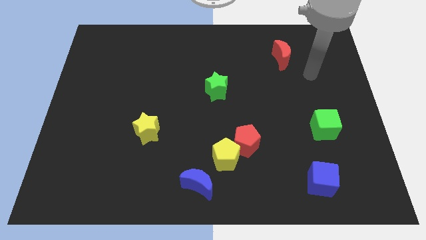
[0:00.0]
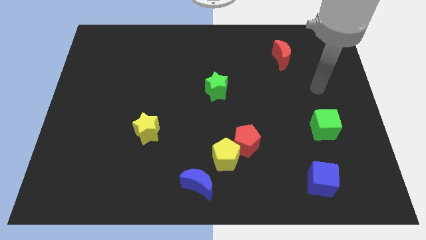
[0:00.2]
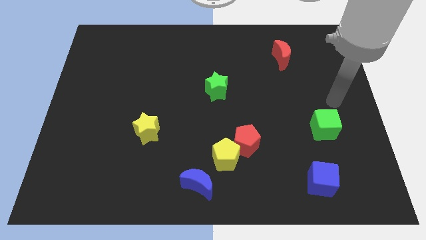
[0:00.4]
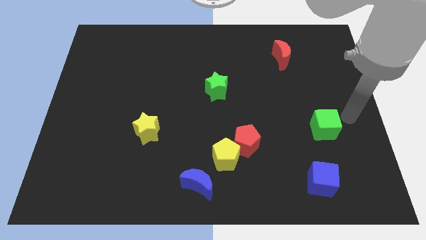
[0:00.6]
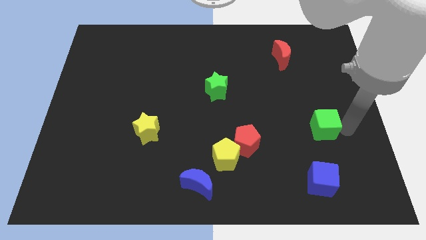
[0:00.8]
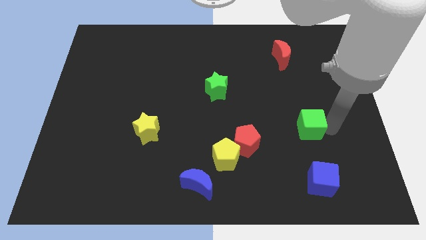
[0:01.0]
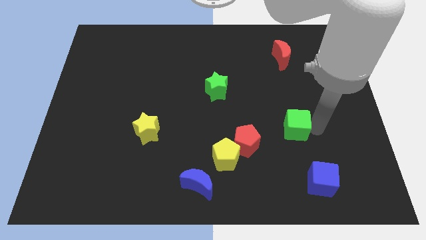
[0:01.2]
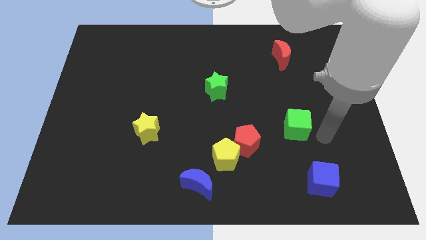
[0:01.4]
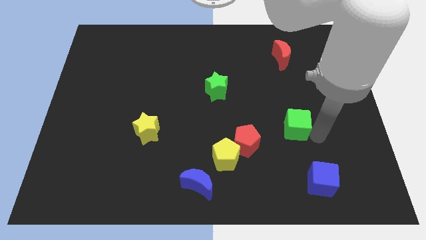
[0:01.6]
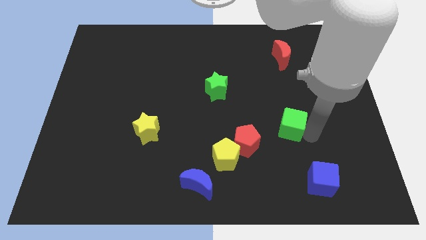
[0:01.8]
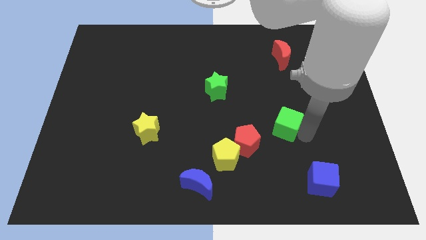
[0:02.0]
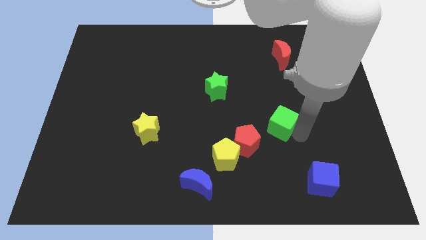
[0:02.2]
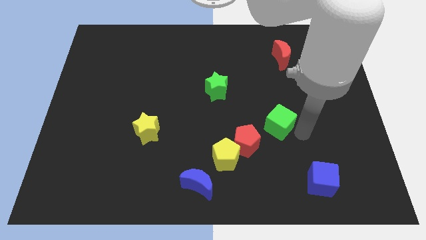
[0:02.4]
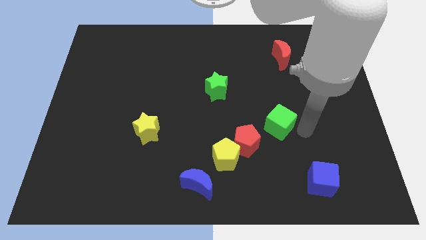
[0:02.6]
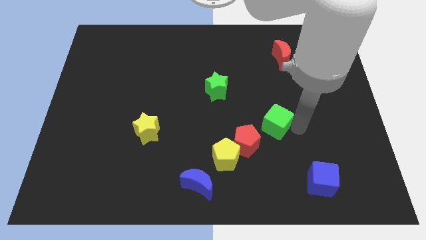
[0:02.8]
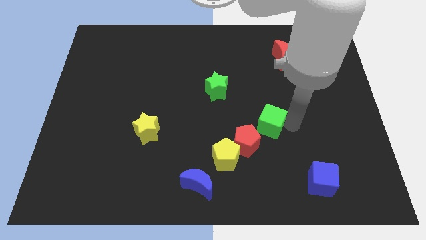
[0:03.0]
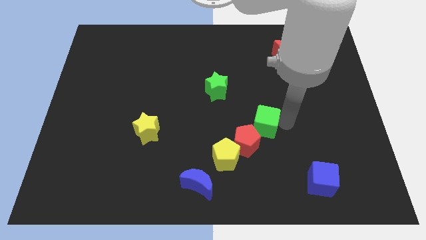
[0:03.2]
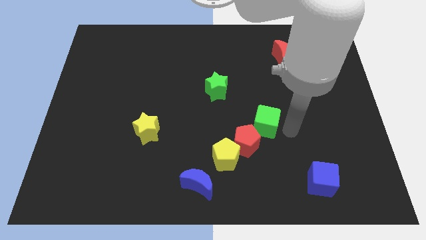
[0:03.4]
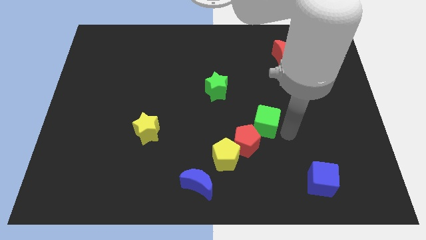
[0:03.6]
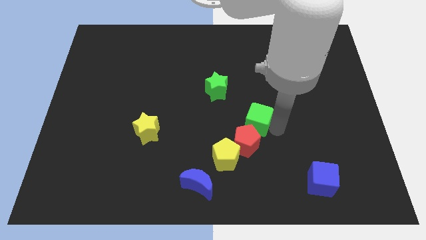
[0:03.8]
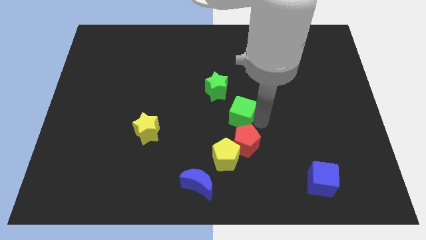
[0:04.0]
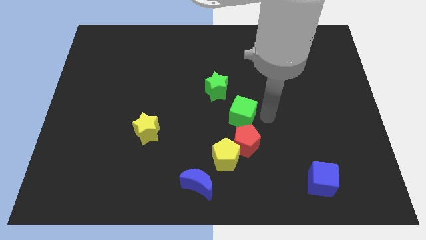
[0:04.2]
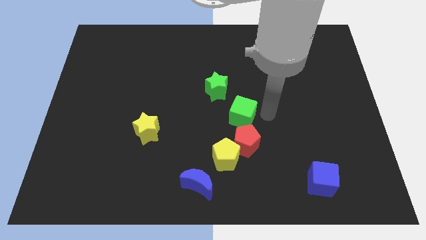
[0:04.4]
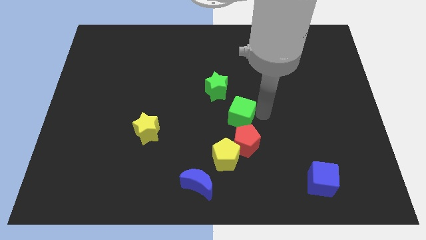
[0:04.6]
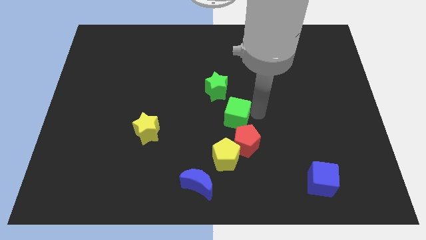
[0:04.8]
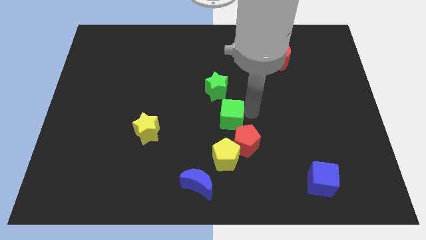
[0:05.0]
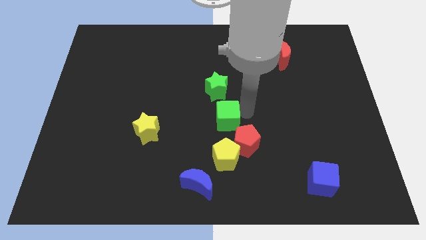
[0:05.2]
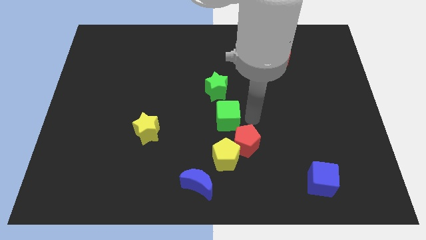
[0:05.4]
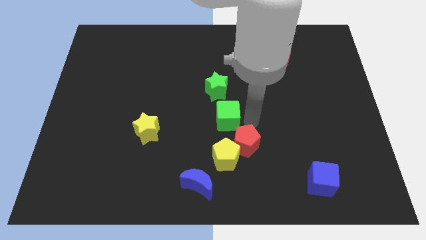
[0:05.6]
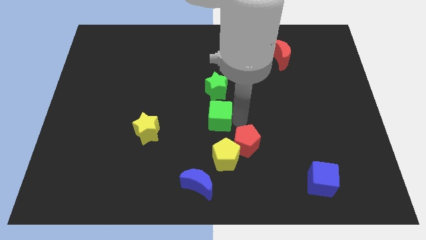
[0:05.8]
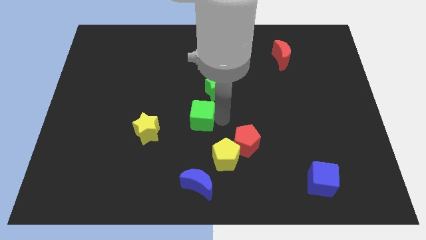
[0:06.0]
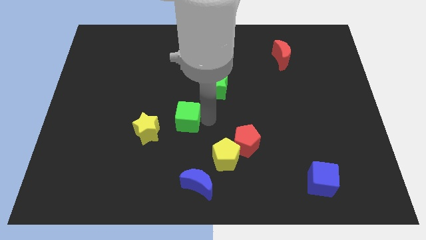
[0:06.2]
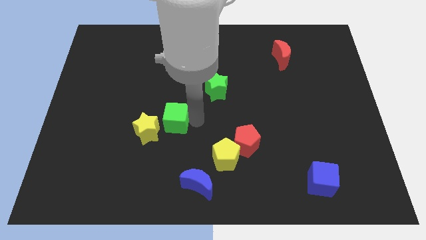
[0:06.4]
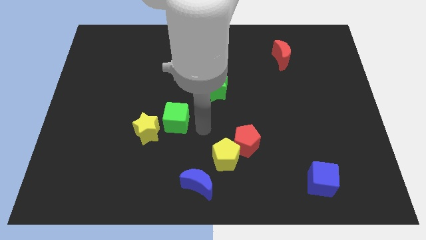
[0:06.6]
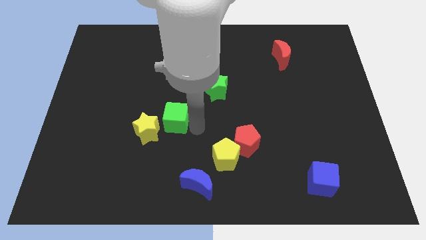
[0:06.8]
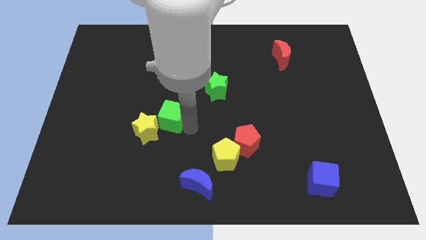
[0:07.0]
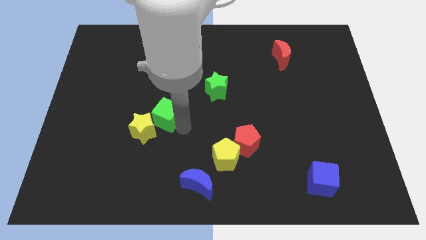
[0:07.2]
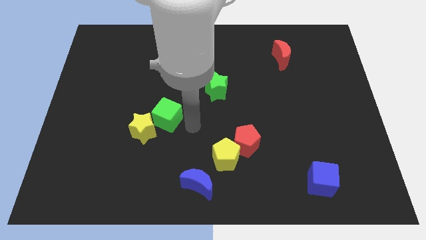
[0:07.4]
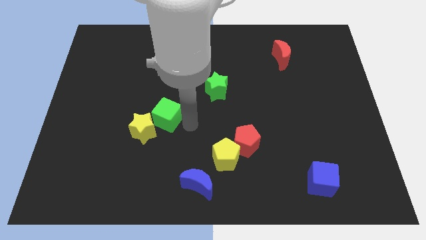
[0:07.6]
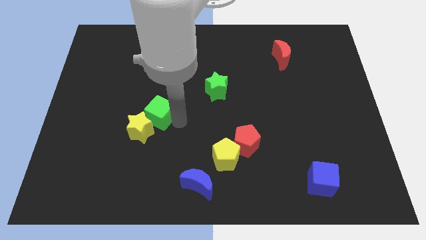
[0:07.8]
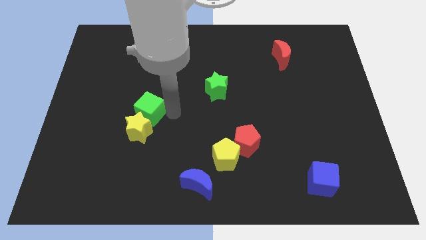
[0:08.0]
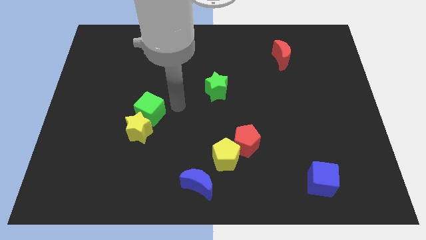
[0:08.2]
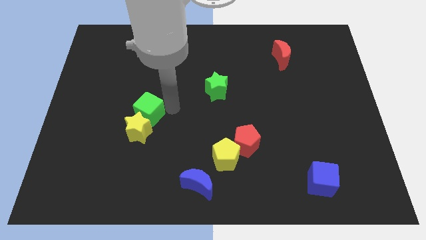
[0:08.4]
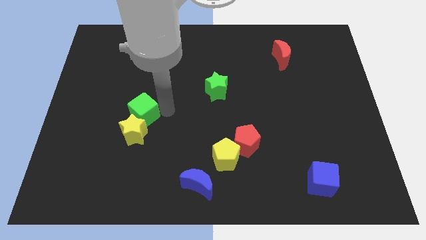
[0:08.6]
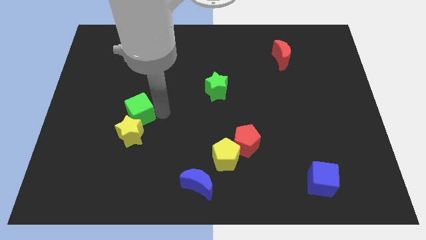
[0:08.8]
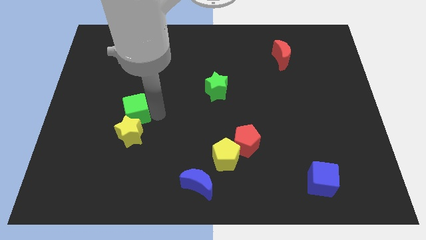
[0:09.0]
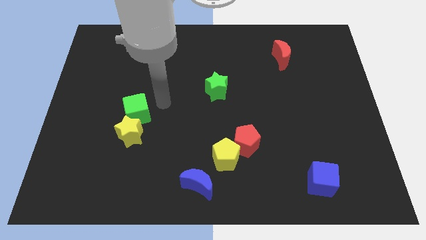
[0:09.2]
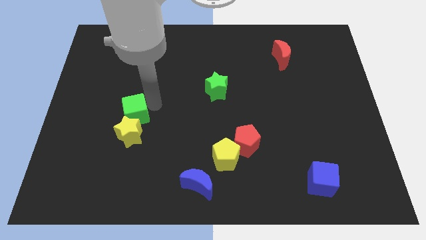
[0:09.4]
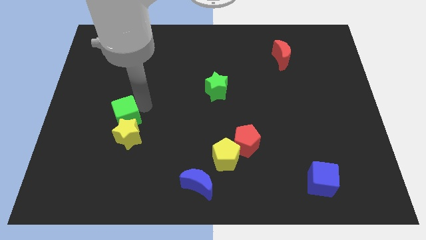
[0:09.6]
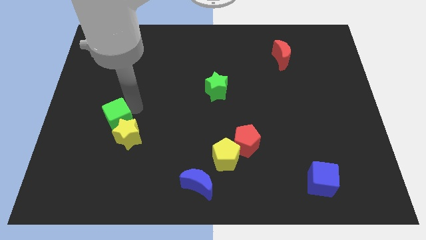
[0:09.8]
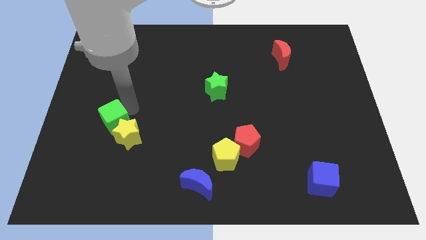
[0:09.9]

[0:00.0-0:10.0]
put the green cube just left of the yellow star

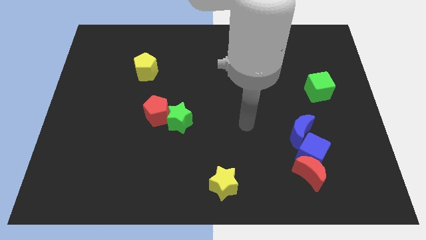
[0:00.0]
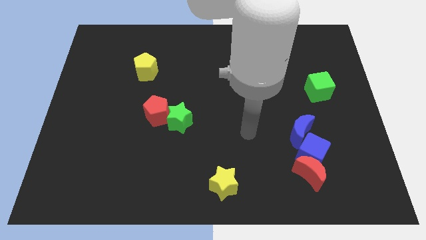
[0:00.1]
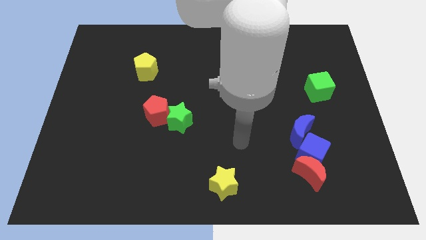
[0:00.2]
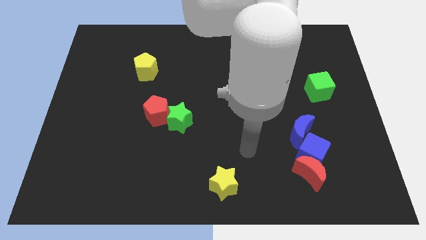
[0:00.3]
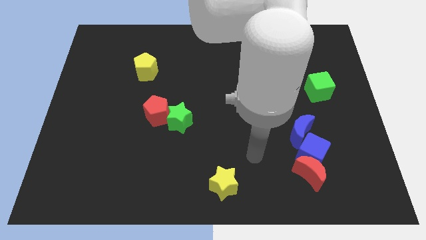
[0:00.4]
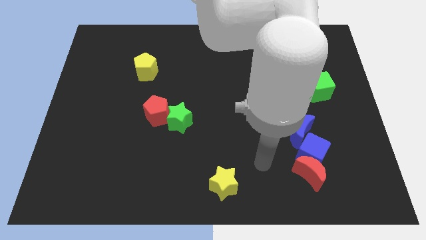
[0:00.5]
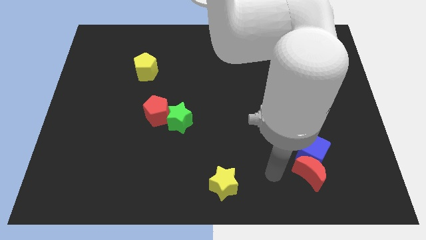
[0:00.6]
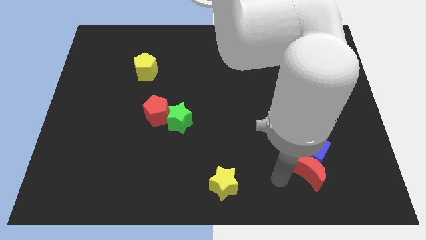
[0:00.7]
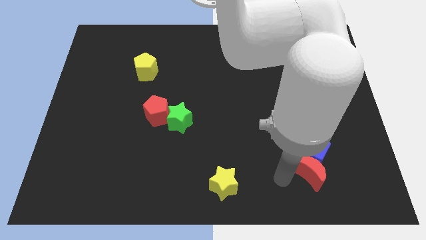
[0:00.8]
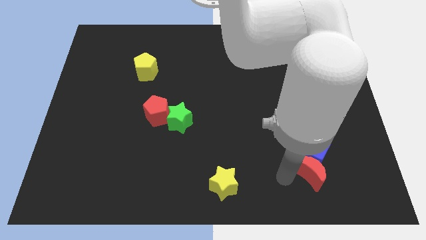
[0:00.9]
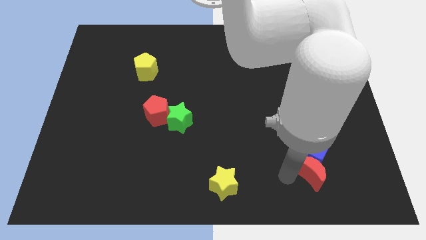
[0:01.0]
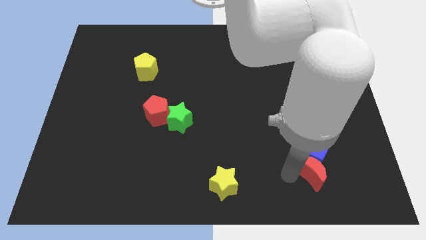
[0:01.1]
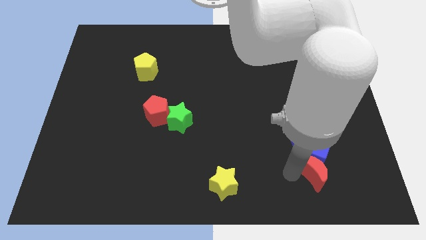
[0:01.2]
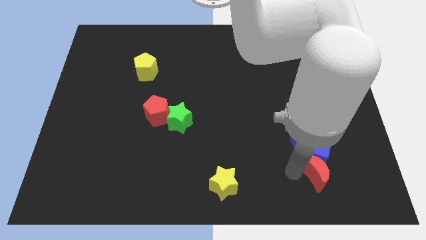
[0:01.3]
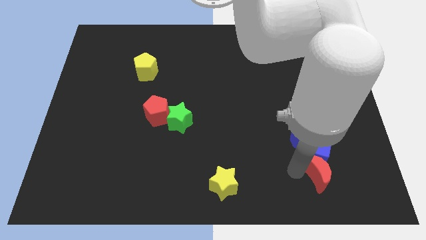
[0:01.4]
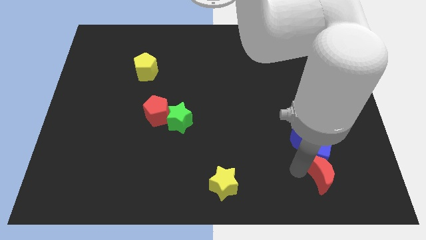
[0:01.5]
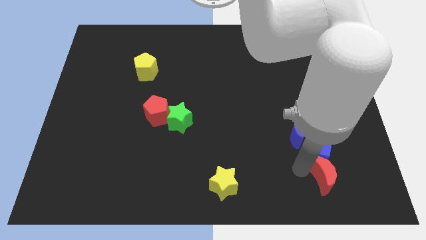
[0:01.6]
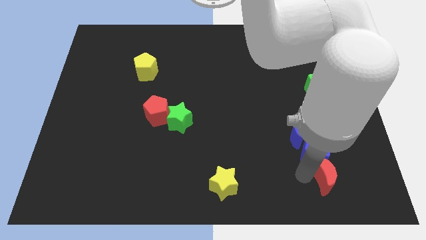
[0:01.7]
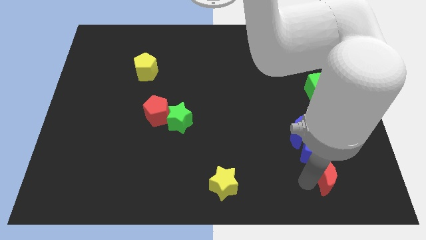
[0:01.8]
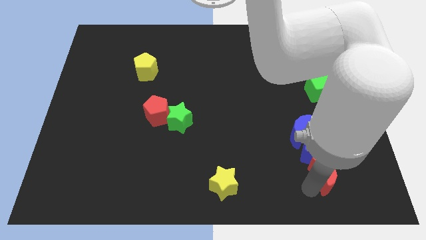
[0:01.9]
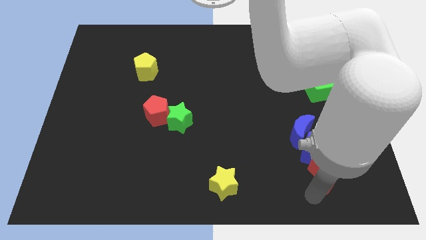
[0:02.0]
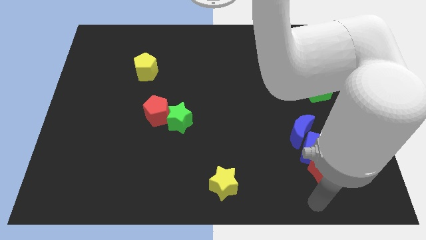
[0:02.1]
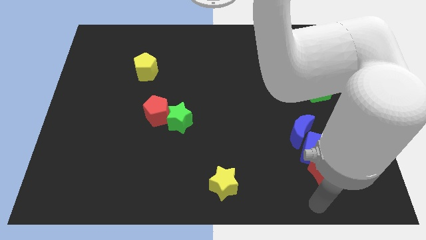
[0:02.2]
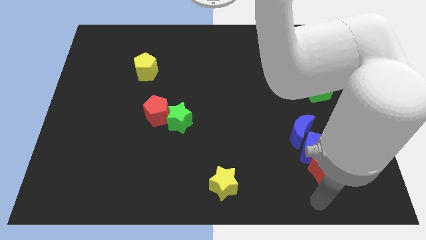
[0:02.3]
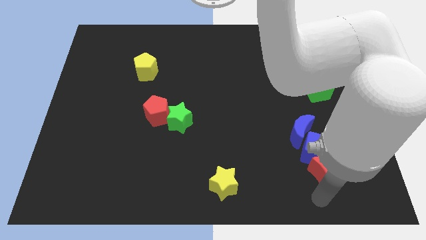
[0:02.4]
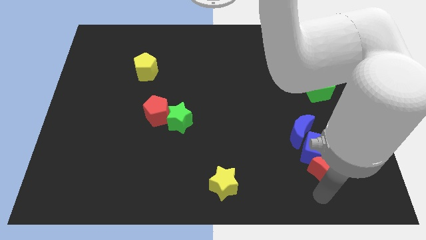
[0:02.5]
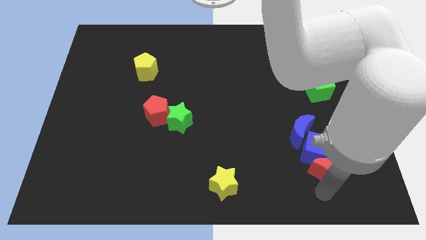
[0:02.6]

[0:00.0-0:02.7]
slide the red moon diagonally down and to the right of the blue moon
